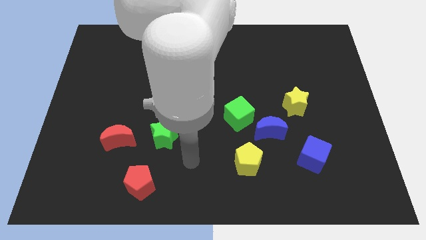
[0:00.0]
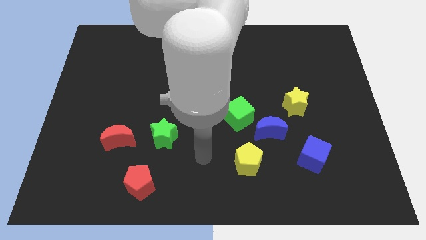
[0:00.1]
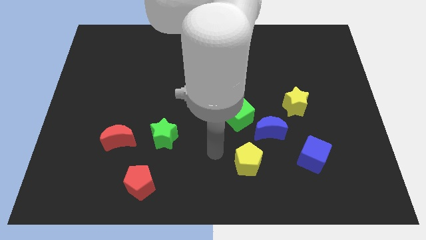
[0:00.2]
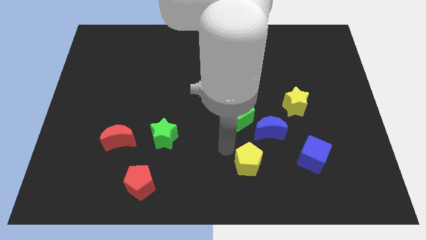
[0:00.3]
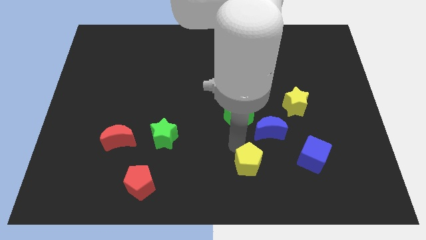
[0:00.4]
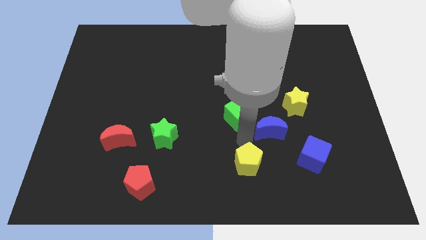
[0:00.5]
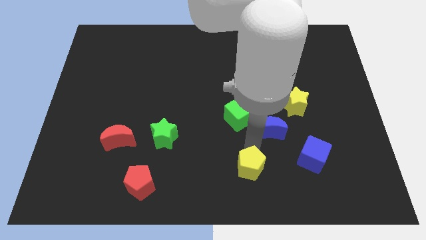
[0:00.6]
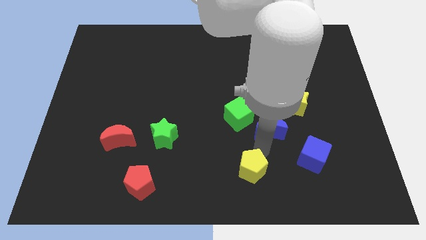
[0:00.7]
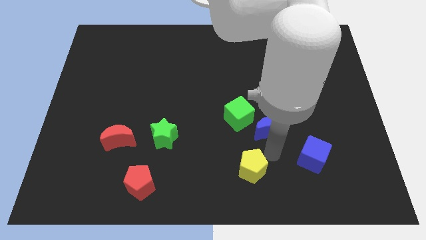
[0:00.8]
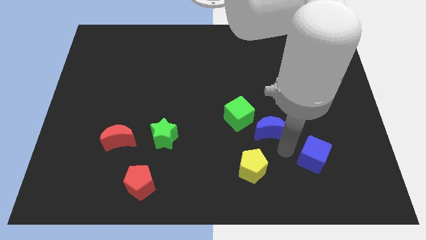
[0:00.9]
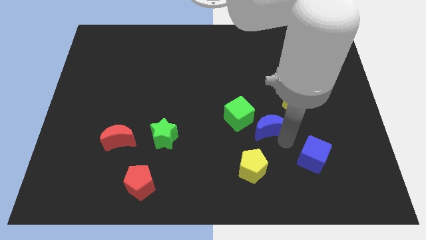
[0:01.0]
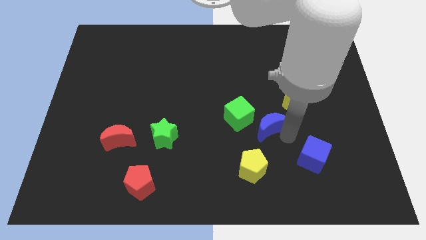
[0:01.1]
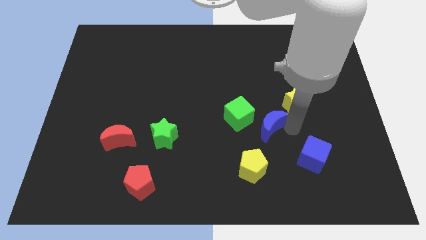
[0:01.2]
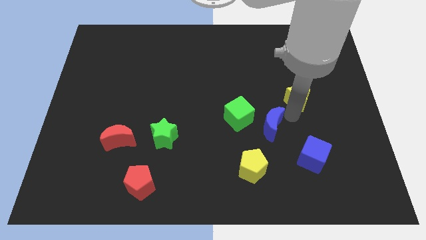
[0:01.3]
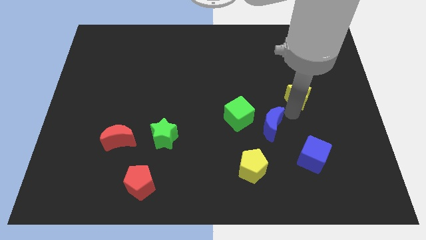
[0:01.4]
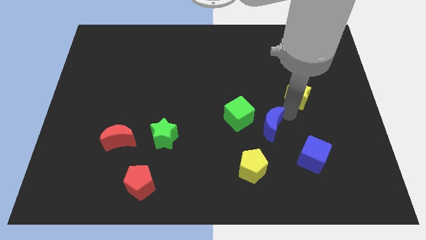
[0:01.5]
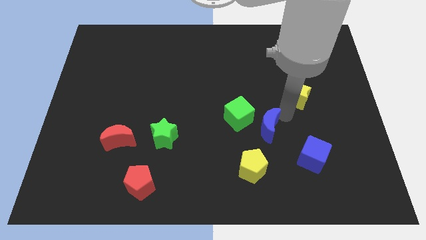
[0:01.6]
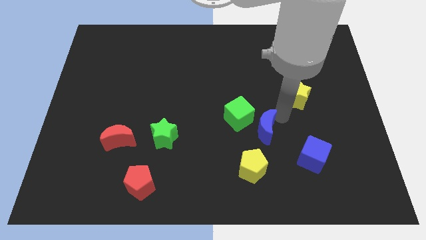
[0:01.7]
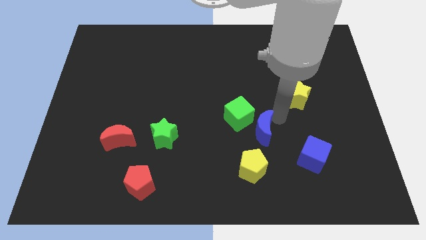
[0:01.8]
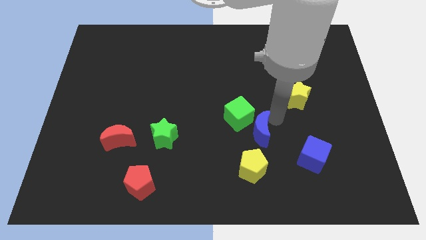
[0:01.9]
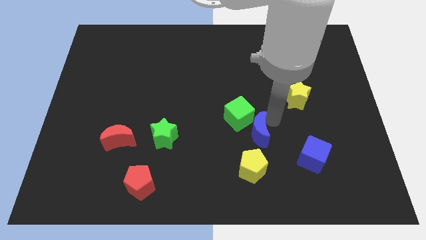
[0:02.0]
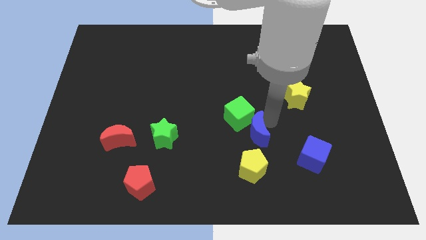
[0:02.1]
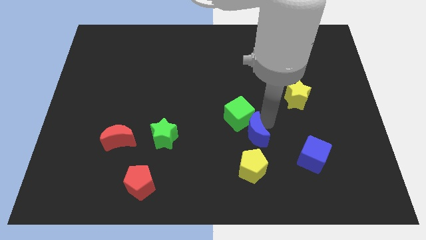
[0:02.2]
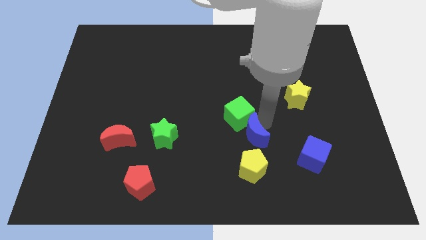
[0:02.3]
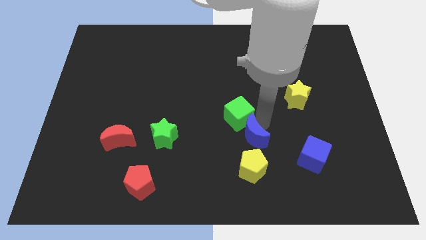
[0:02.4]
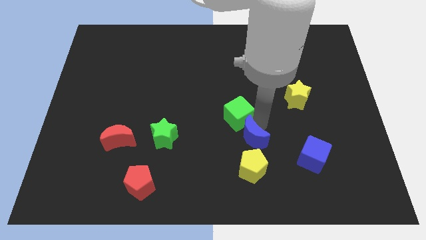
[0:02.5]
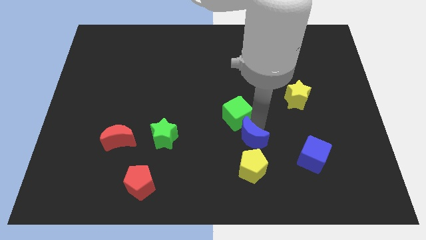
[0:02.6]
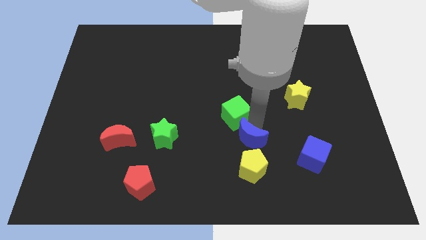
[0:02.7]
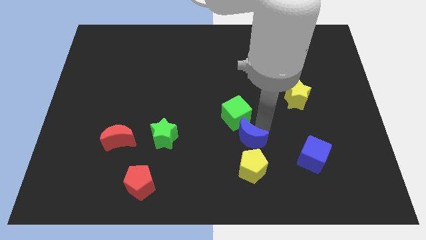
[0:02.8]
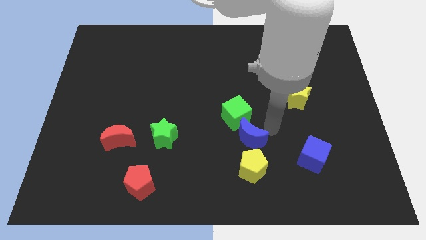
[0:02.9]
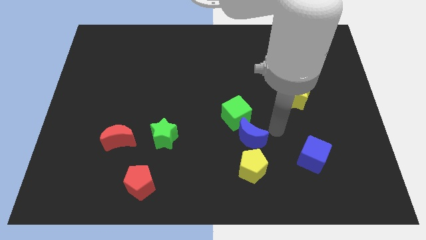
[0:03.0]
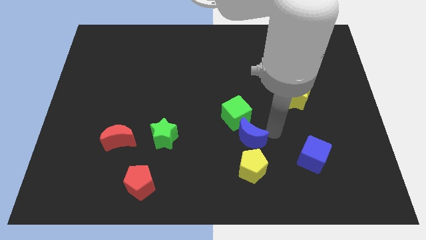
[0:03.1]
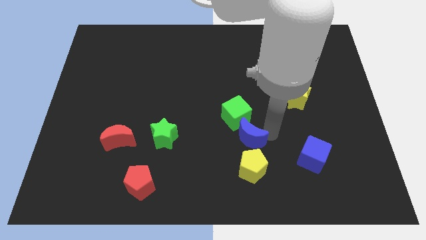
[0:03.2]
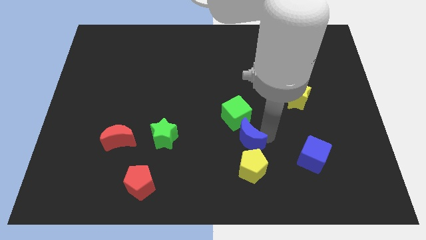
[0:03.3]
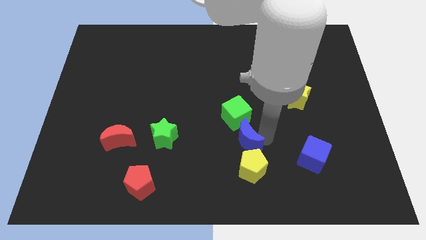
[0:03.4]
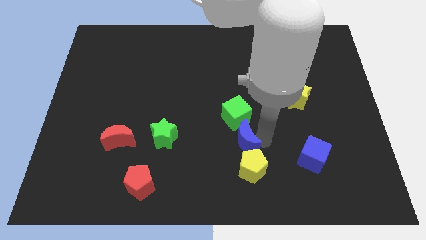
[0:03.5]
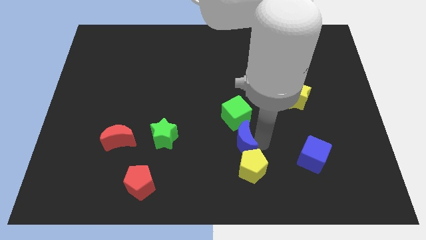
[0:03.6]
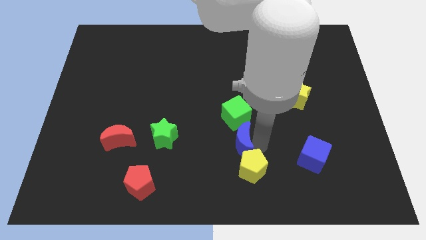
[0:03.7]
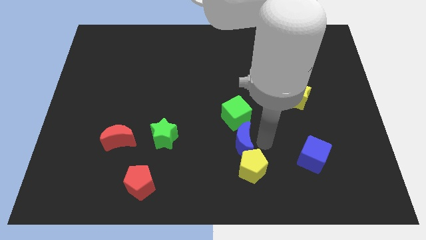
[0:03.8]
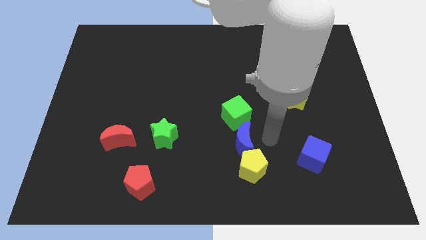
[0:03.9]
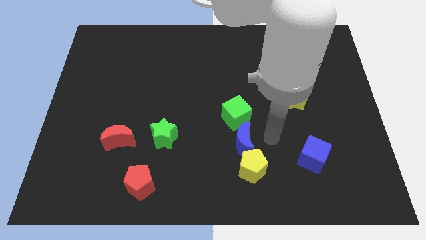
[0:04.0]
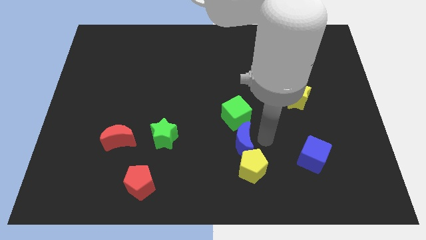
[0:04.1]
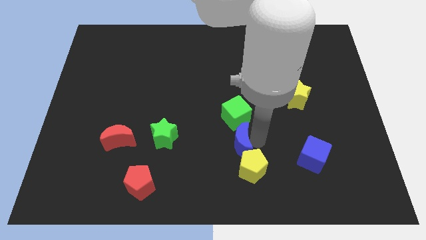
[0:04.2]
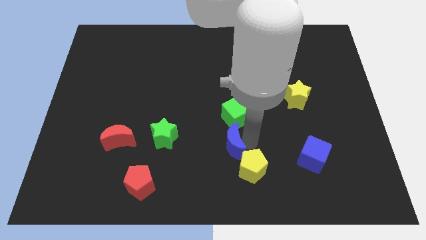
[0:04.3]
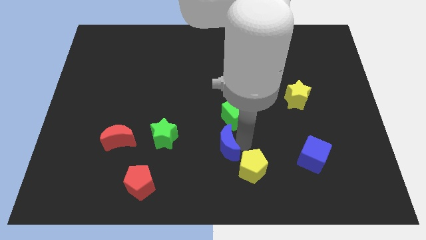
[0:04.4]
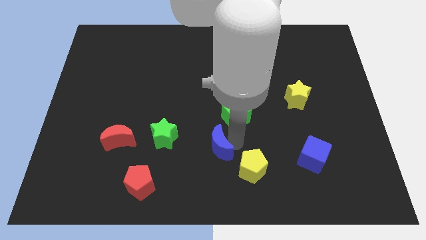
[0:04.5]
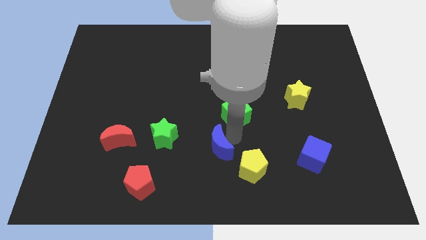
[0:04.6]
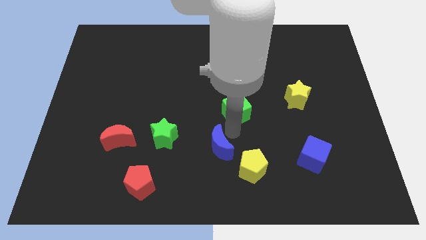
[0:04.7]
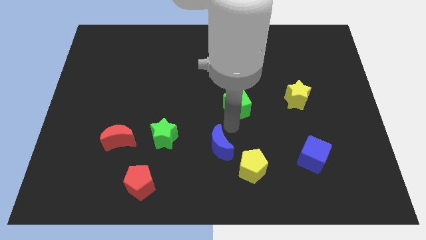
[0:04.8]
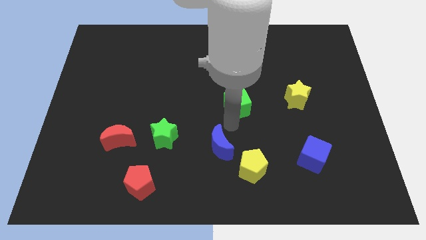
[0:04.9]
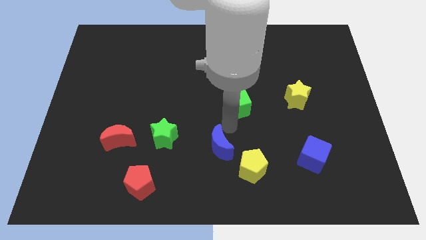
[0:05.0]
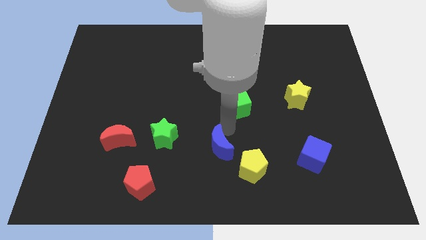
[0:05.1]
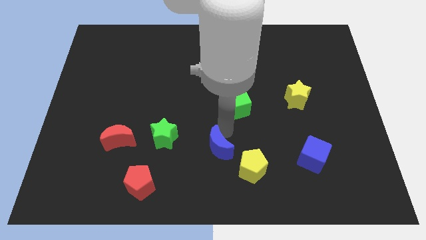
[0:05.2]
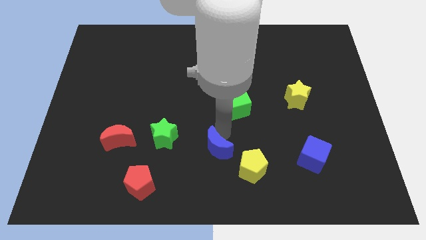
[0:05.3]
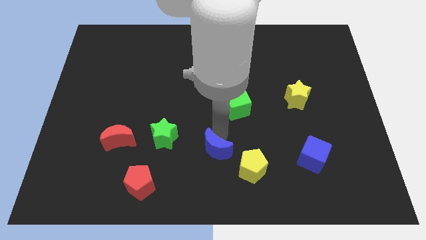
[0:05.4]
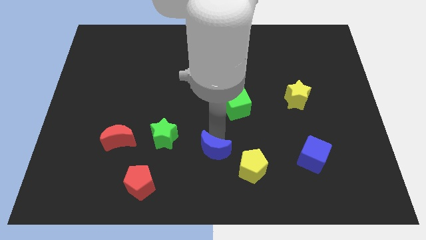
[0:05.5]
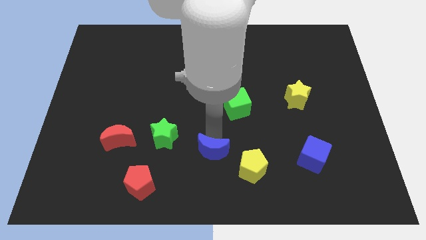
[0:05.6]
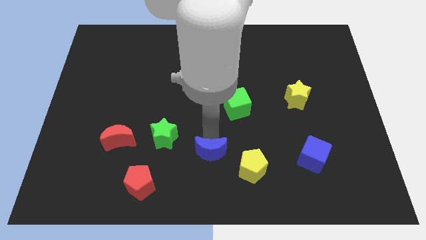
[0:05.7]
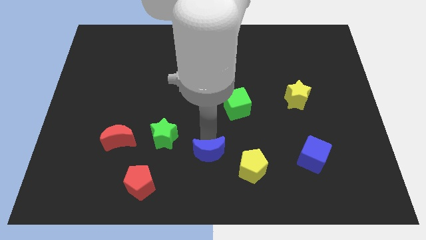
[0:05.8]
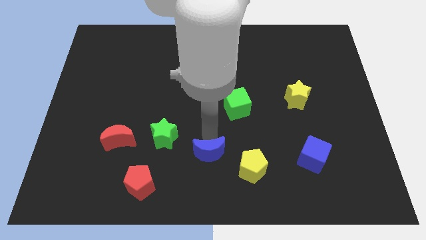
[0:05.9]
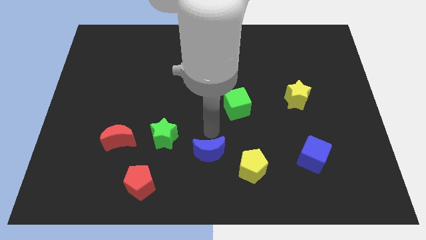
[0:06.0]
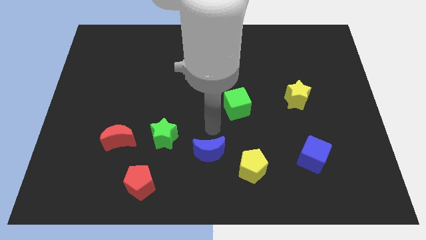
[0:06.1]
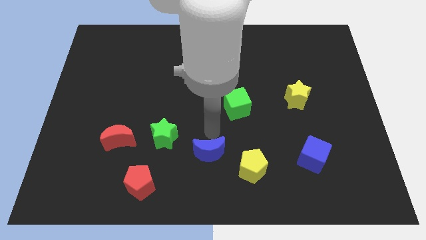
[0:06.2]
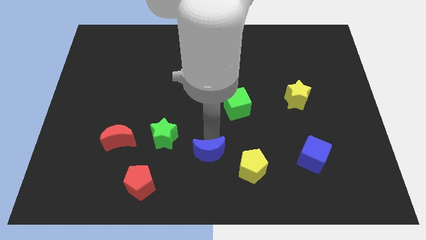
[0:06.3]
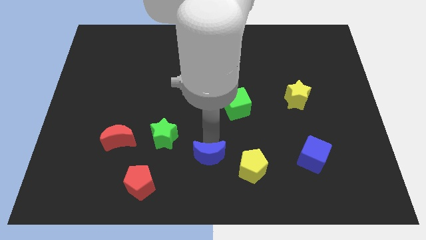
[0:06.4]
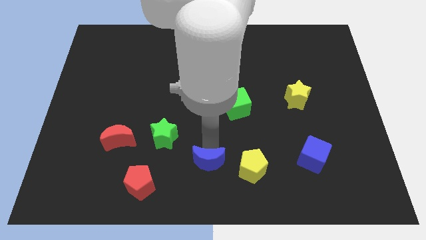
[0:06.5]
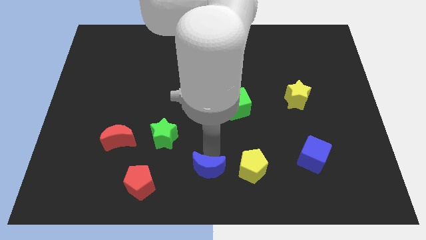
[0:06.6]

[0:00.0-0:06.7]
move the blue moon to the right of the red pentagon

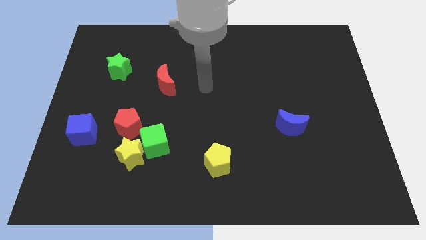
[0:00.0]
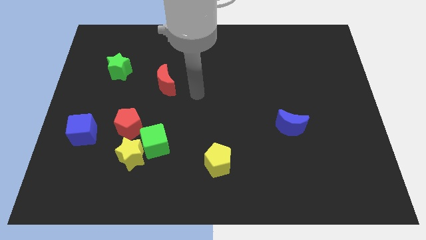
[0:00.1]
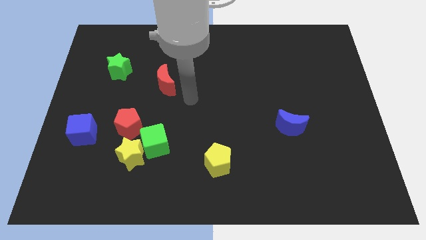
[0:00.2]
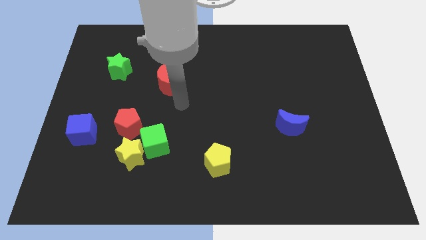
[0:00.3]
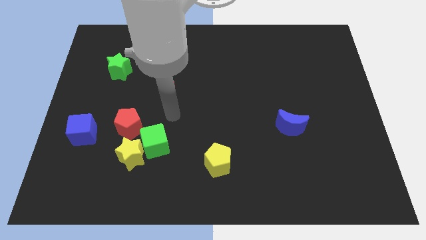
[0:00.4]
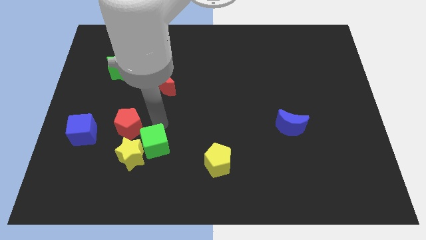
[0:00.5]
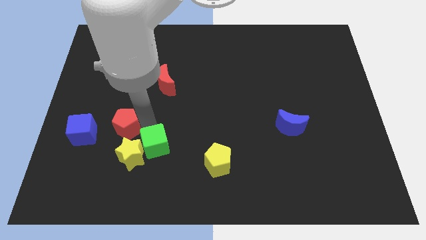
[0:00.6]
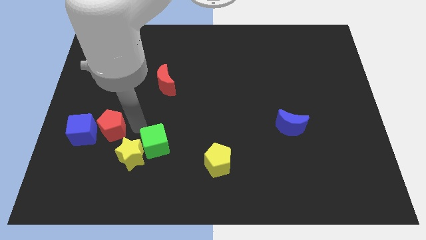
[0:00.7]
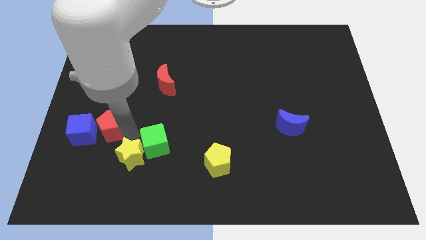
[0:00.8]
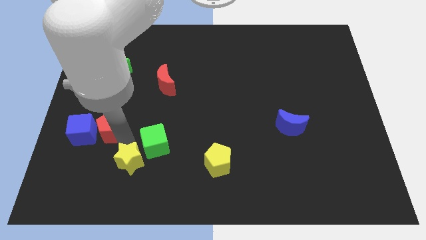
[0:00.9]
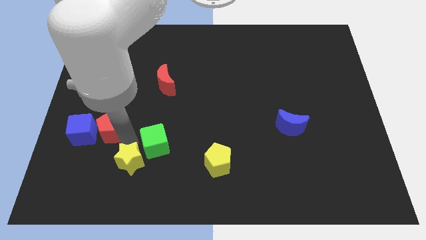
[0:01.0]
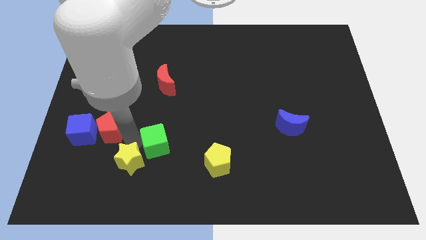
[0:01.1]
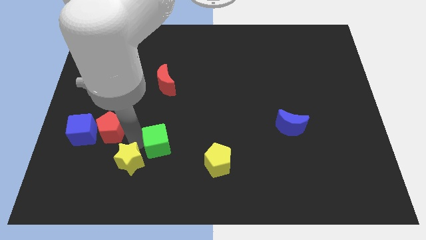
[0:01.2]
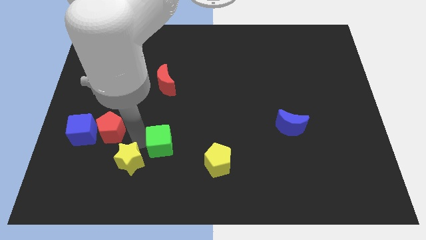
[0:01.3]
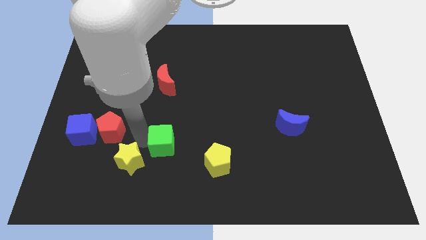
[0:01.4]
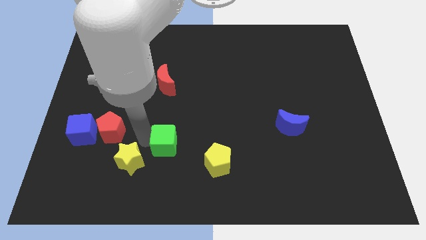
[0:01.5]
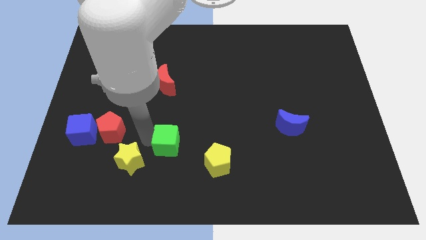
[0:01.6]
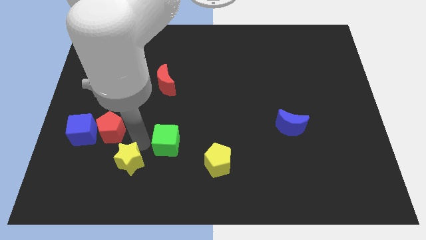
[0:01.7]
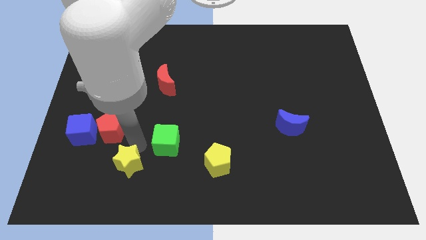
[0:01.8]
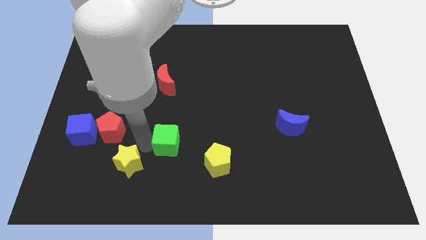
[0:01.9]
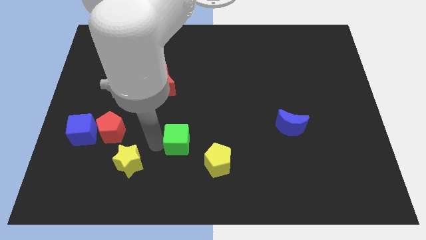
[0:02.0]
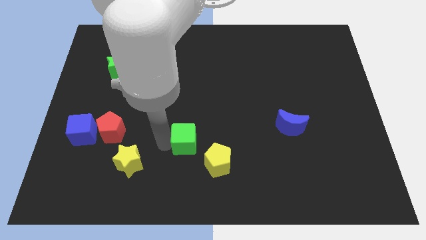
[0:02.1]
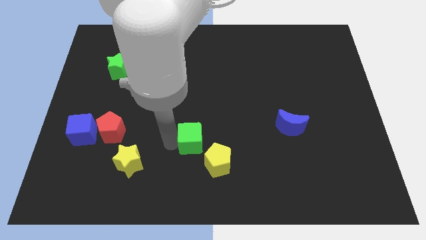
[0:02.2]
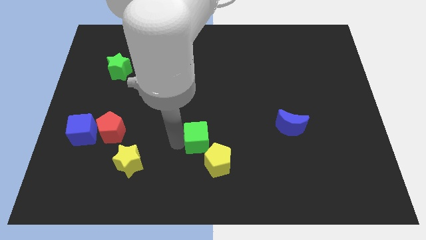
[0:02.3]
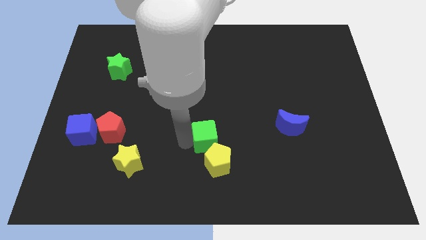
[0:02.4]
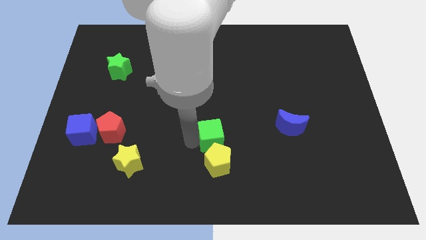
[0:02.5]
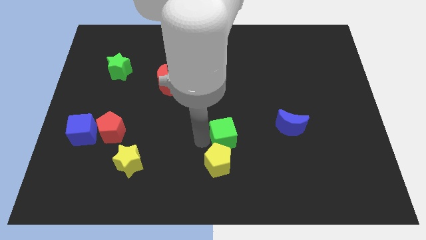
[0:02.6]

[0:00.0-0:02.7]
move the green cube to the left side of the blue moon
